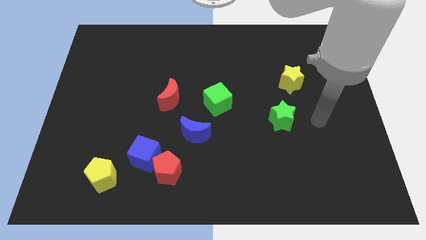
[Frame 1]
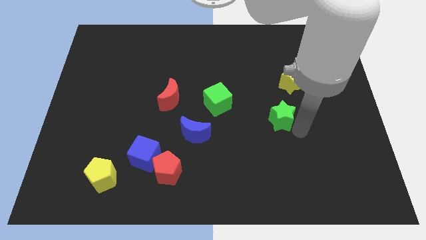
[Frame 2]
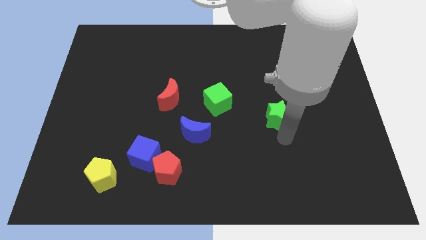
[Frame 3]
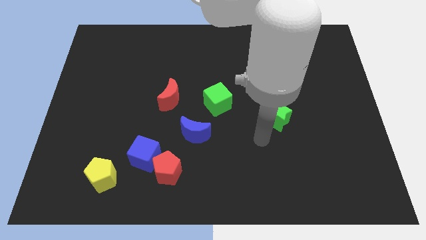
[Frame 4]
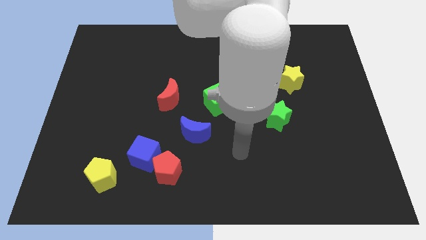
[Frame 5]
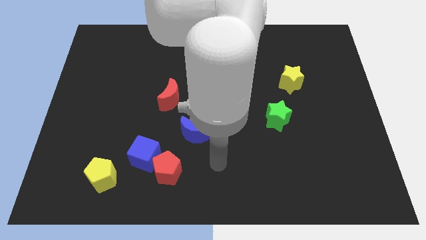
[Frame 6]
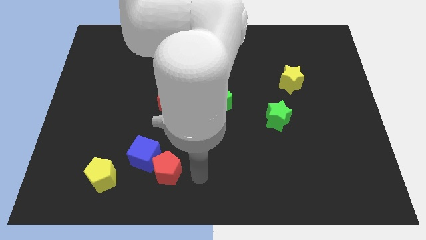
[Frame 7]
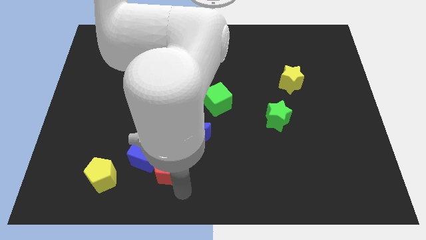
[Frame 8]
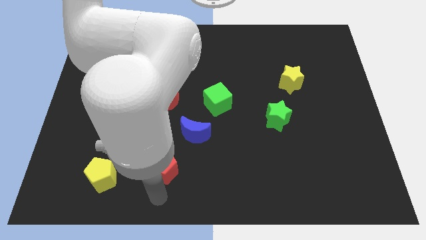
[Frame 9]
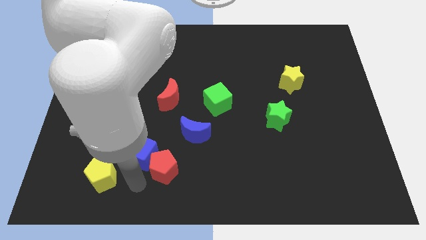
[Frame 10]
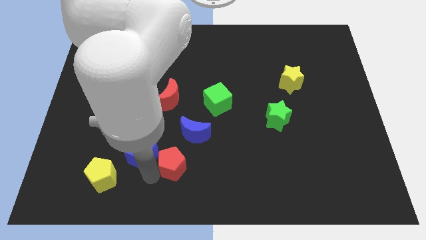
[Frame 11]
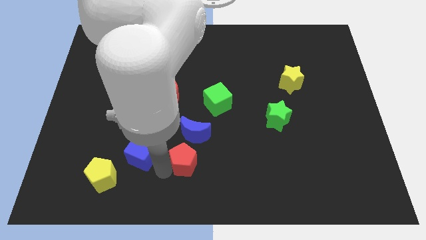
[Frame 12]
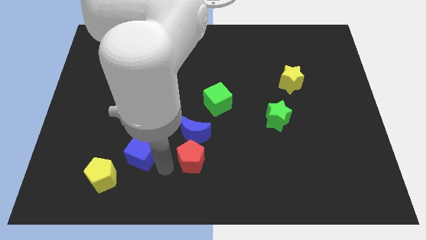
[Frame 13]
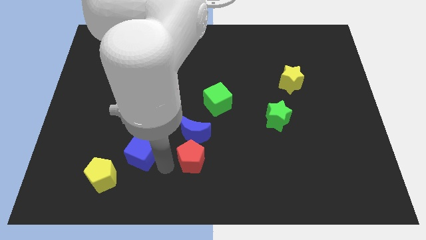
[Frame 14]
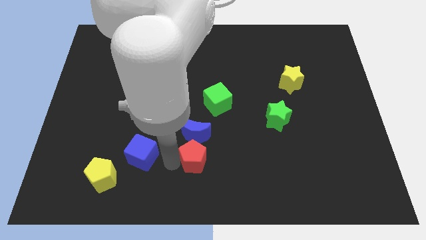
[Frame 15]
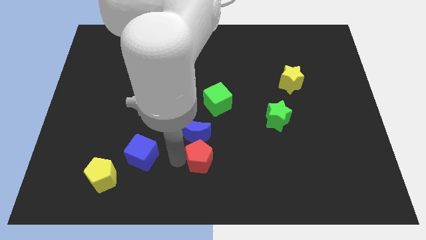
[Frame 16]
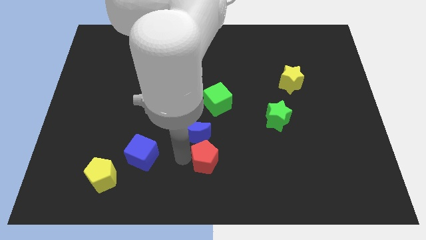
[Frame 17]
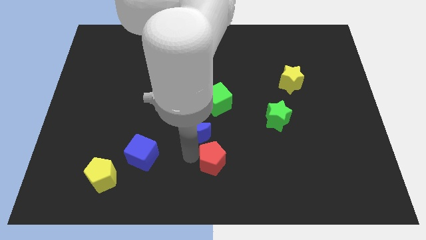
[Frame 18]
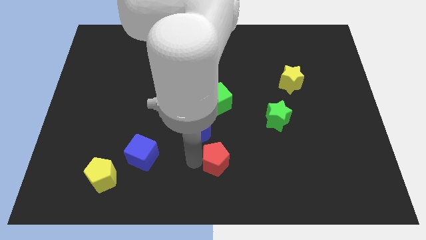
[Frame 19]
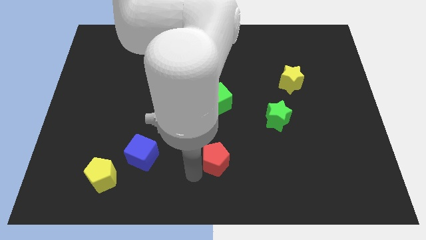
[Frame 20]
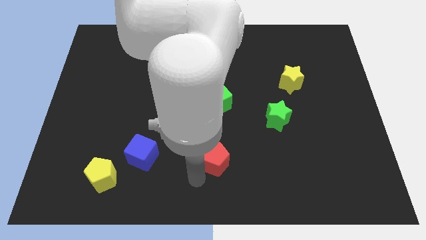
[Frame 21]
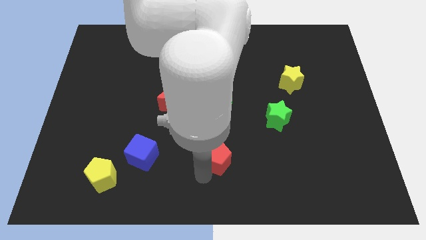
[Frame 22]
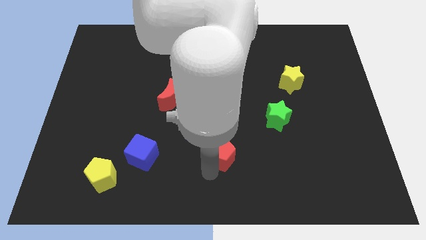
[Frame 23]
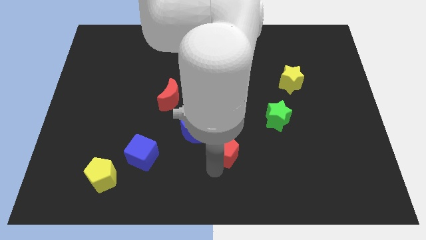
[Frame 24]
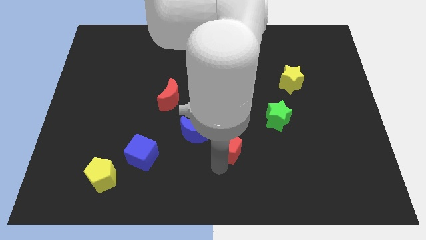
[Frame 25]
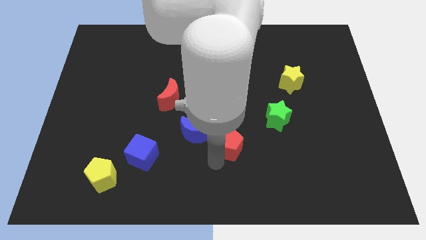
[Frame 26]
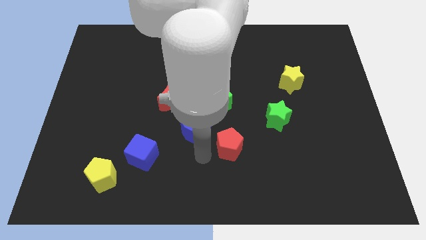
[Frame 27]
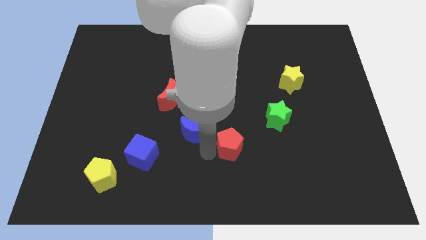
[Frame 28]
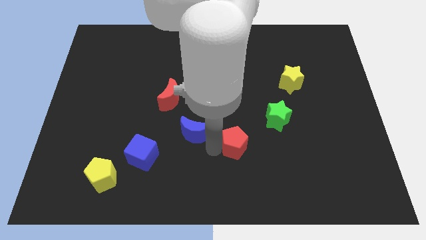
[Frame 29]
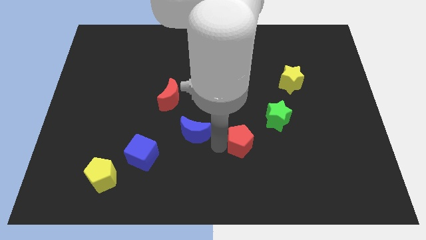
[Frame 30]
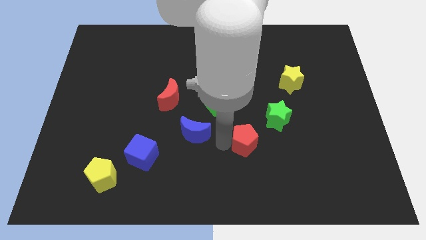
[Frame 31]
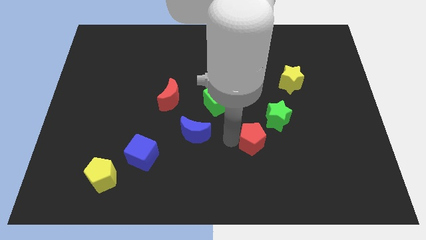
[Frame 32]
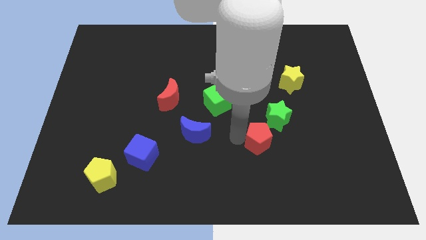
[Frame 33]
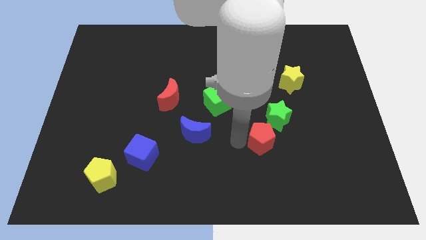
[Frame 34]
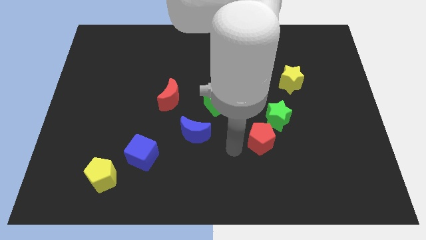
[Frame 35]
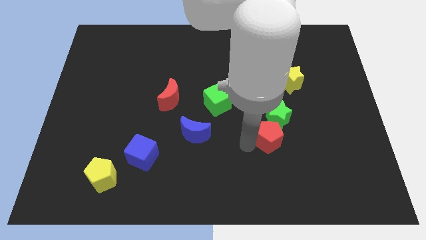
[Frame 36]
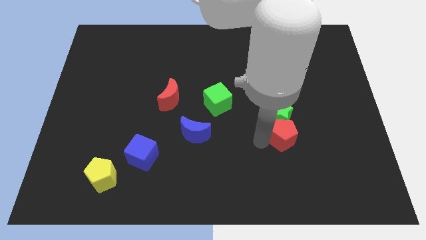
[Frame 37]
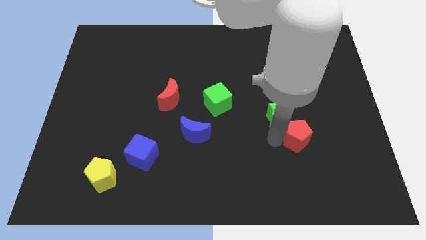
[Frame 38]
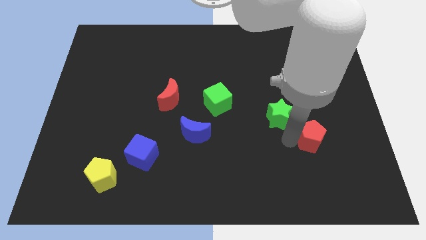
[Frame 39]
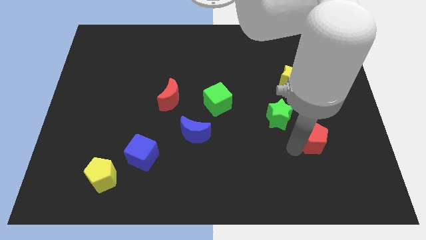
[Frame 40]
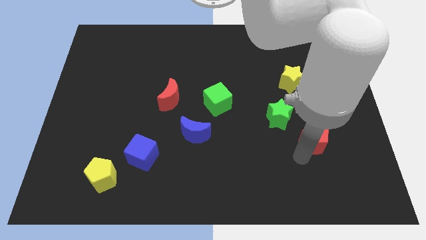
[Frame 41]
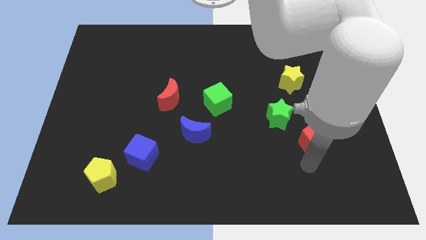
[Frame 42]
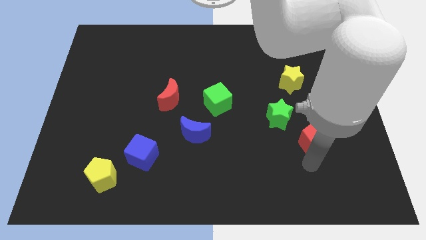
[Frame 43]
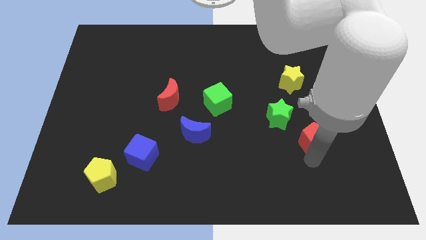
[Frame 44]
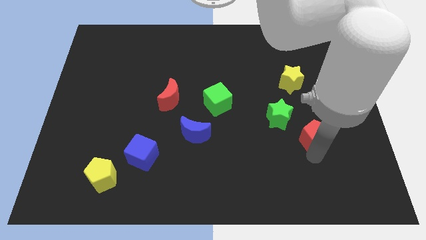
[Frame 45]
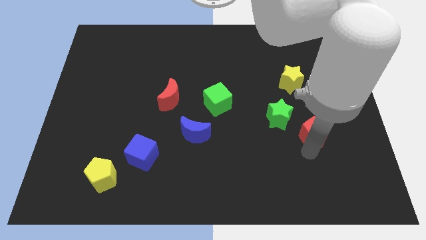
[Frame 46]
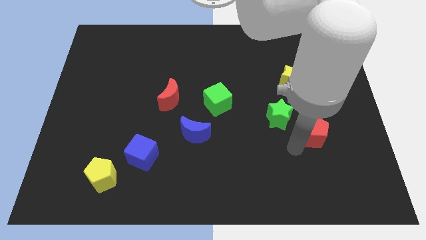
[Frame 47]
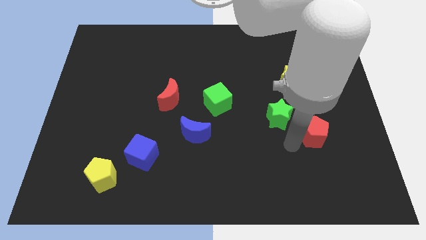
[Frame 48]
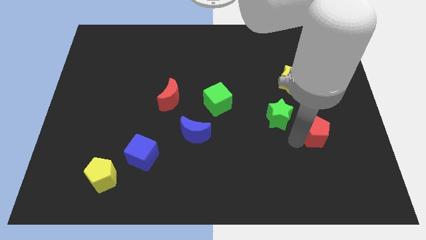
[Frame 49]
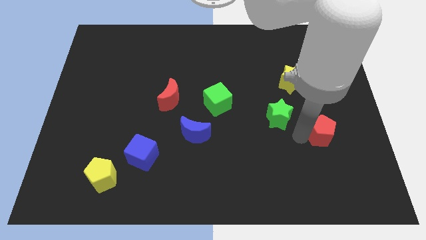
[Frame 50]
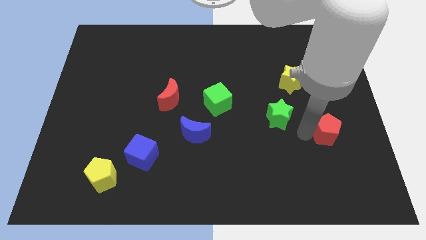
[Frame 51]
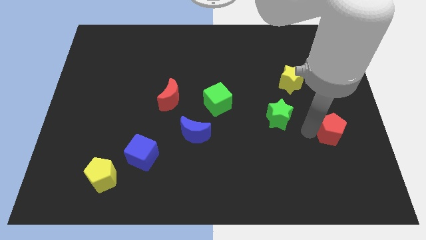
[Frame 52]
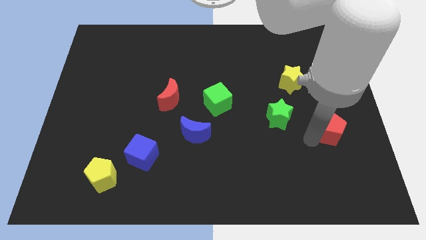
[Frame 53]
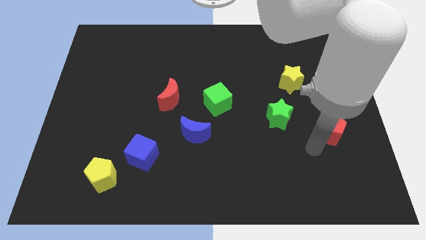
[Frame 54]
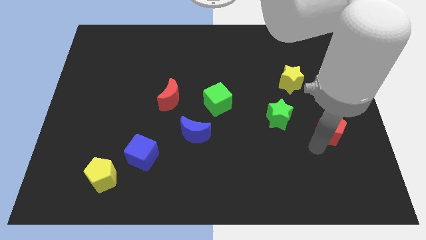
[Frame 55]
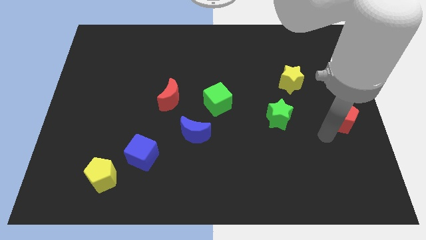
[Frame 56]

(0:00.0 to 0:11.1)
put the red pentagon to the right side of the board

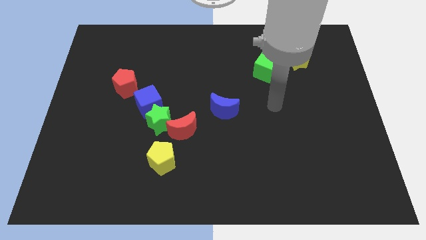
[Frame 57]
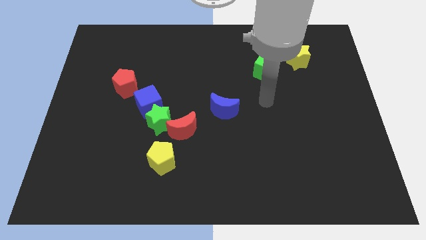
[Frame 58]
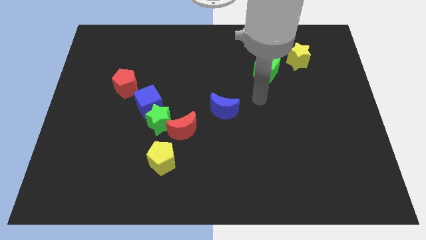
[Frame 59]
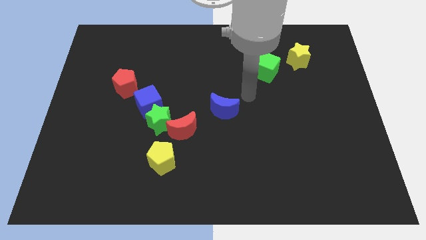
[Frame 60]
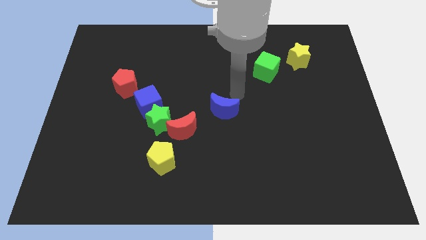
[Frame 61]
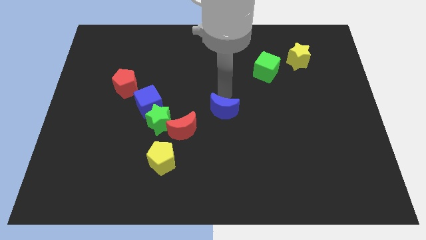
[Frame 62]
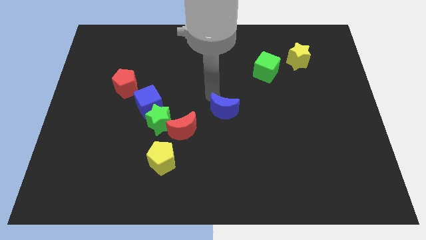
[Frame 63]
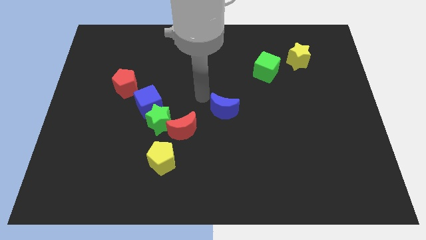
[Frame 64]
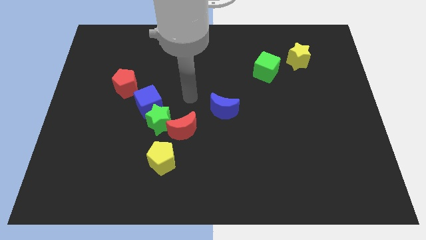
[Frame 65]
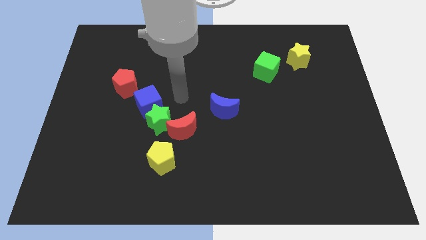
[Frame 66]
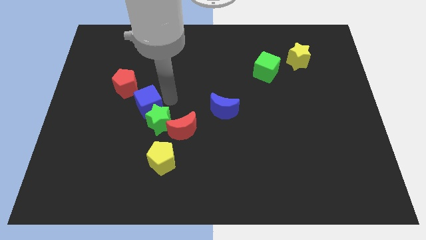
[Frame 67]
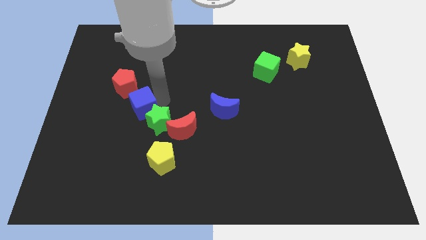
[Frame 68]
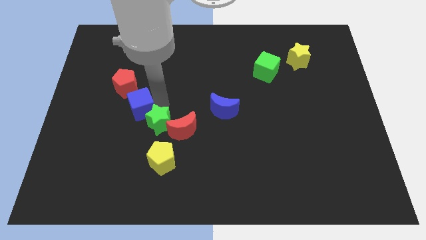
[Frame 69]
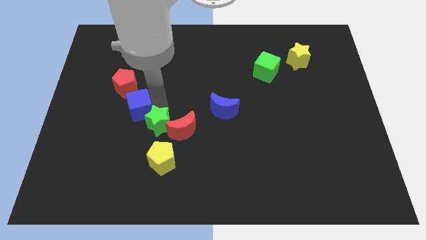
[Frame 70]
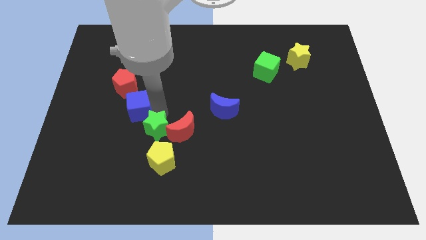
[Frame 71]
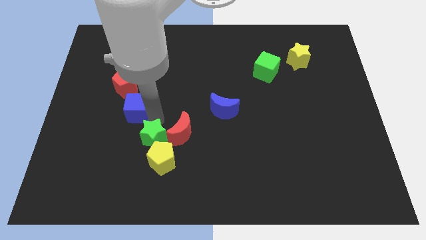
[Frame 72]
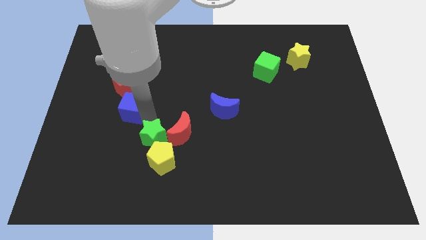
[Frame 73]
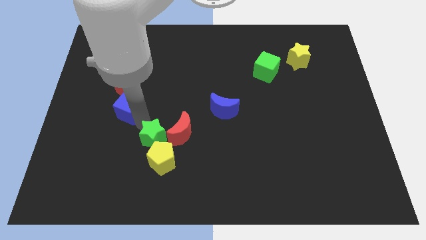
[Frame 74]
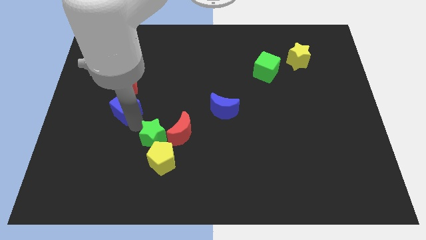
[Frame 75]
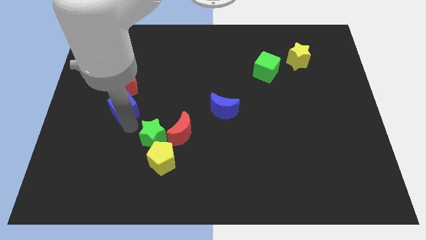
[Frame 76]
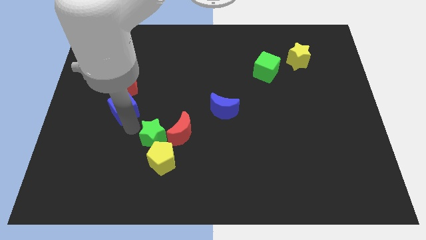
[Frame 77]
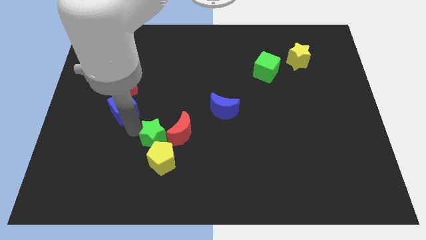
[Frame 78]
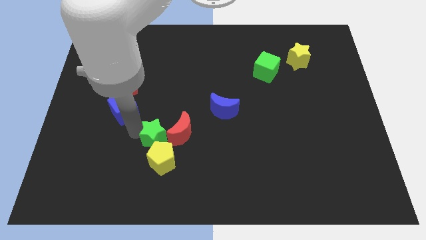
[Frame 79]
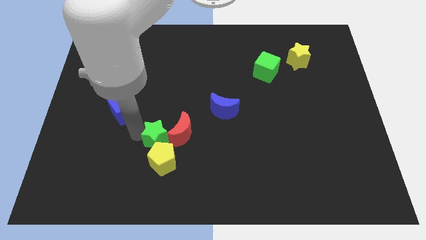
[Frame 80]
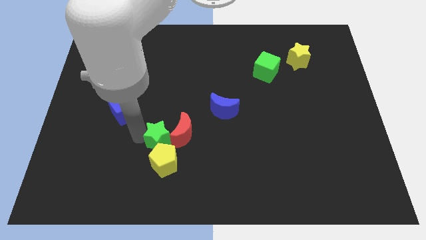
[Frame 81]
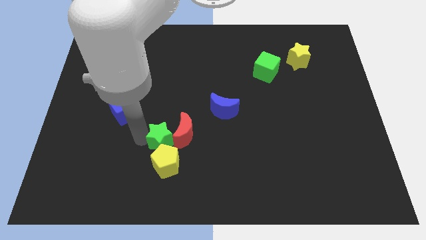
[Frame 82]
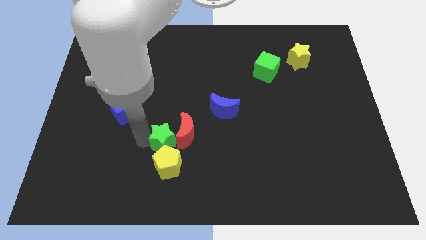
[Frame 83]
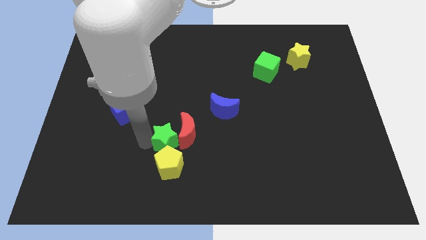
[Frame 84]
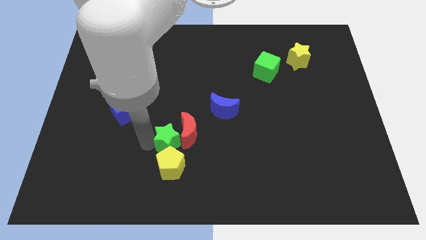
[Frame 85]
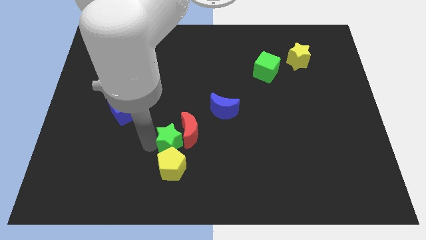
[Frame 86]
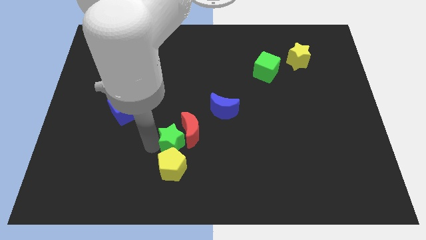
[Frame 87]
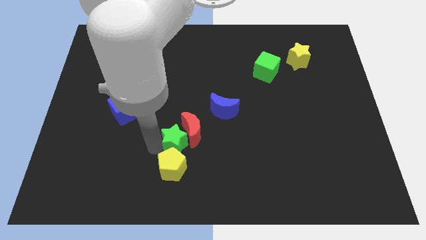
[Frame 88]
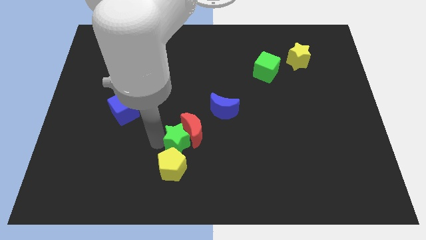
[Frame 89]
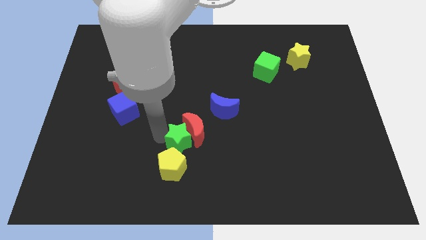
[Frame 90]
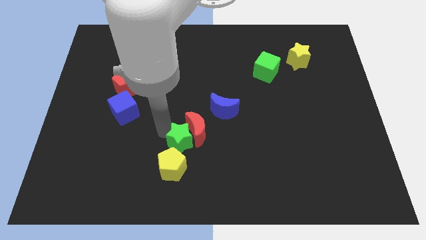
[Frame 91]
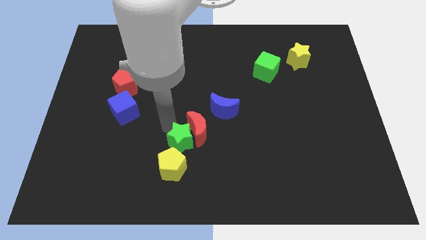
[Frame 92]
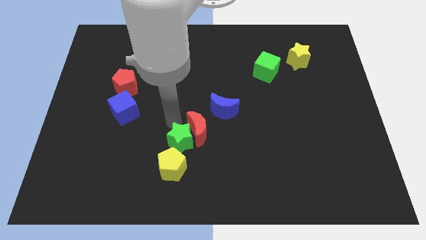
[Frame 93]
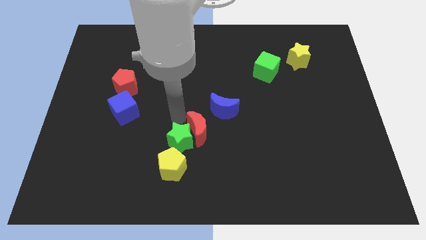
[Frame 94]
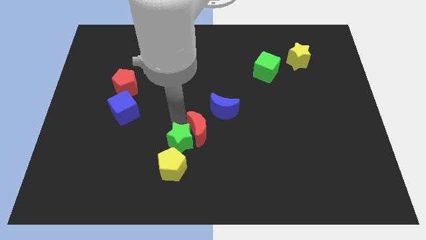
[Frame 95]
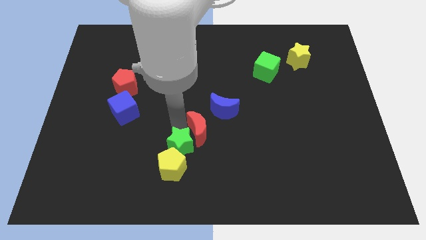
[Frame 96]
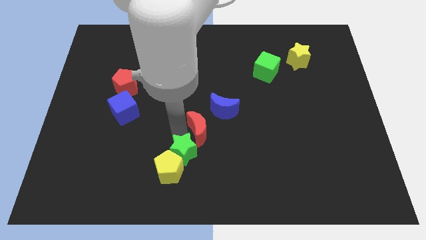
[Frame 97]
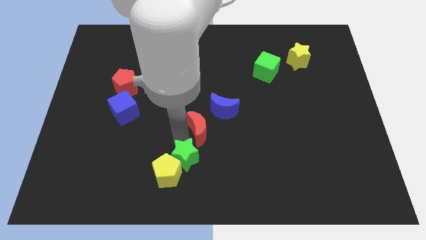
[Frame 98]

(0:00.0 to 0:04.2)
move the green star to the bottom
